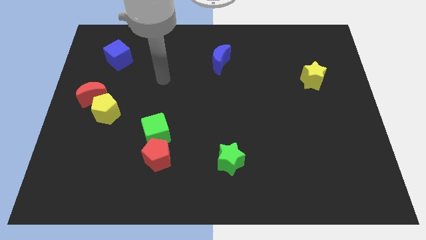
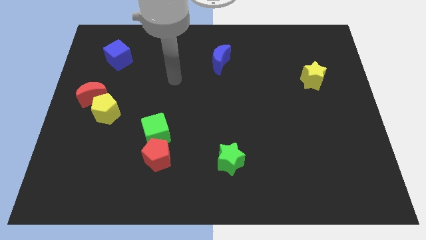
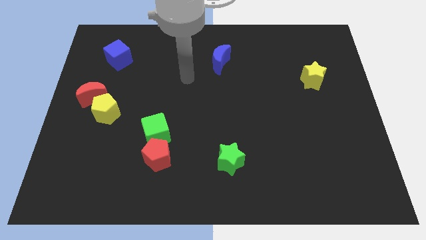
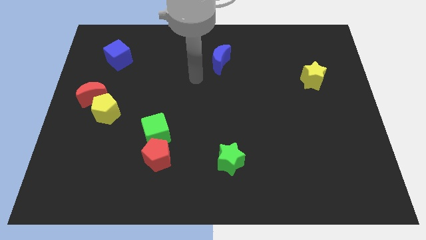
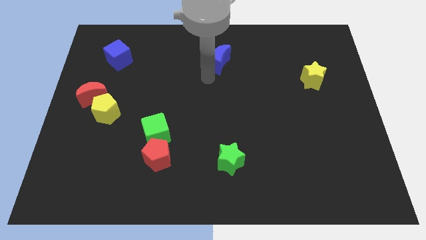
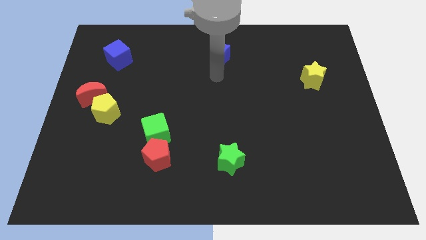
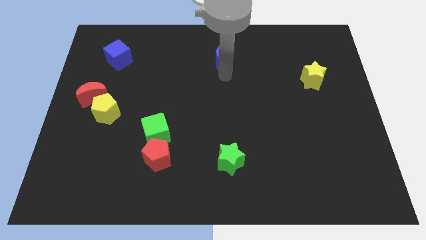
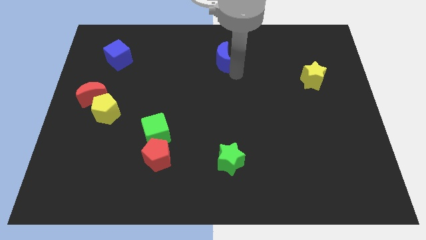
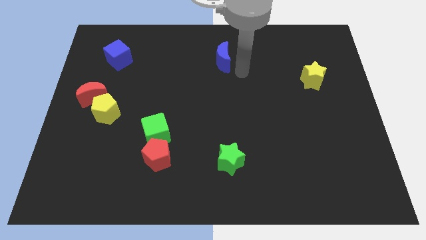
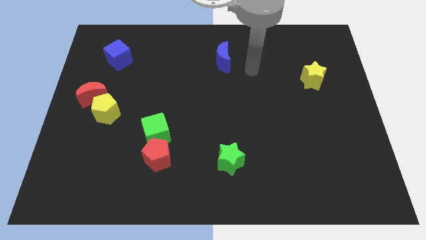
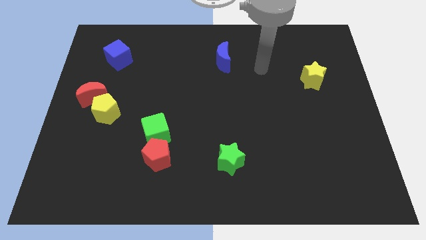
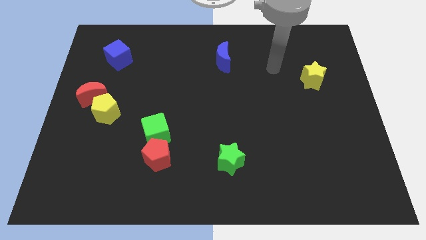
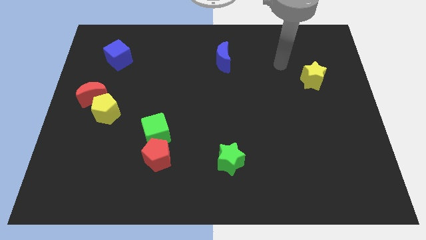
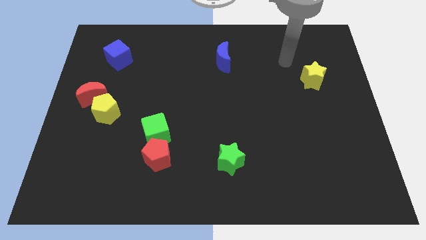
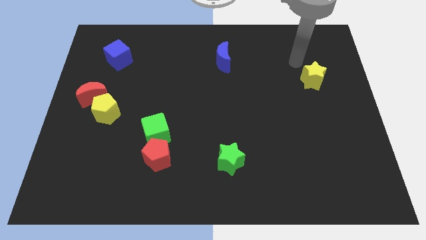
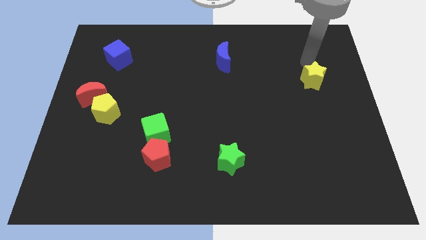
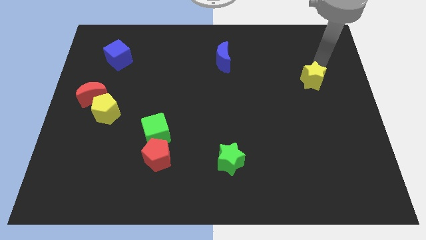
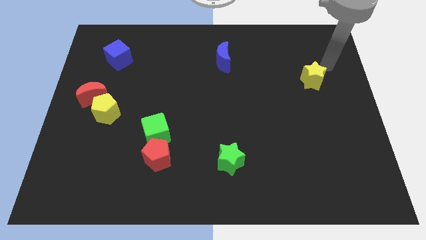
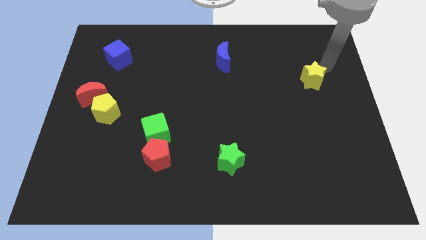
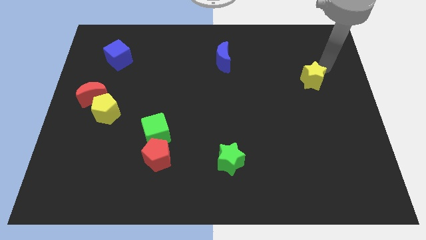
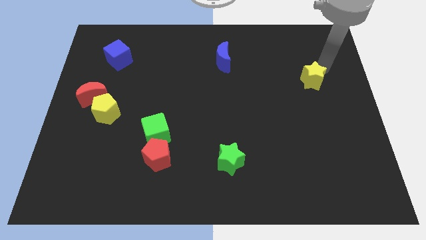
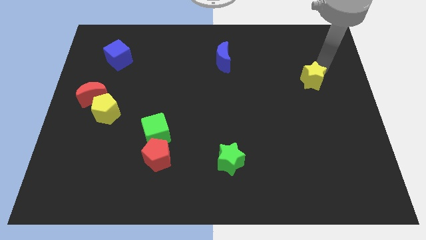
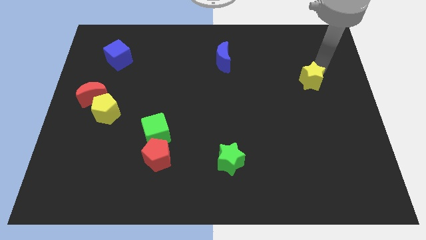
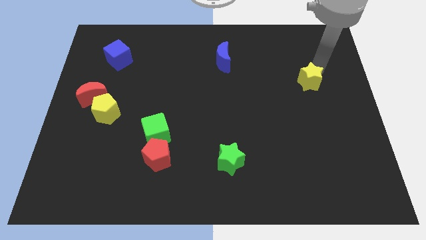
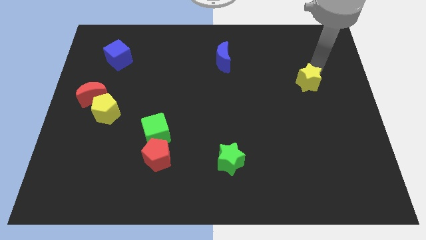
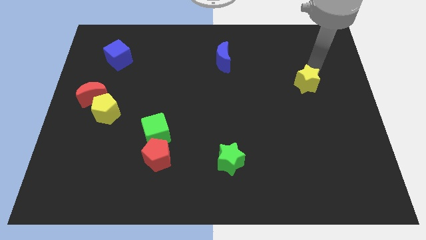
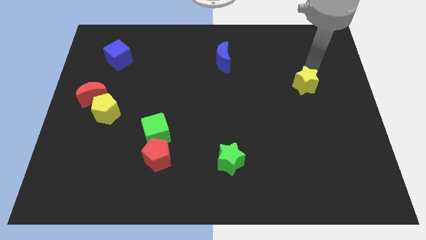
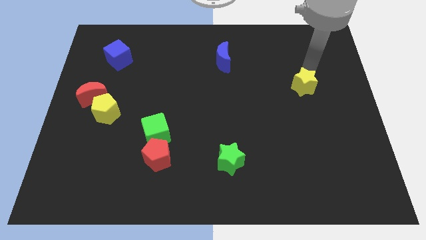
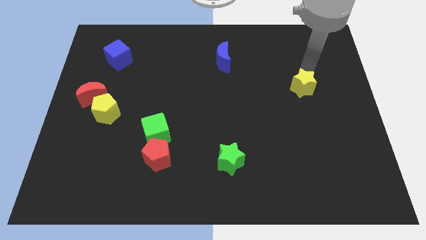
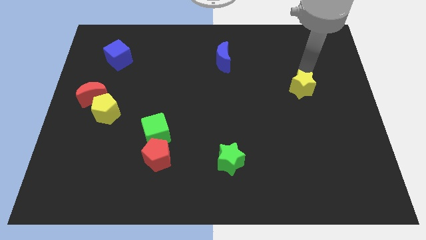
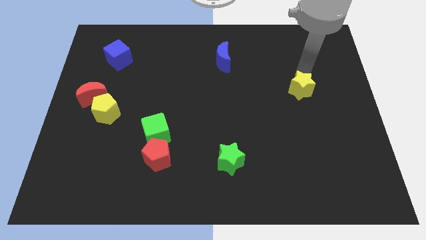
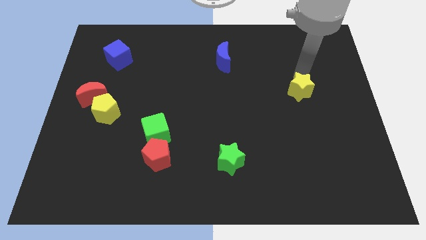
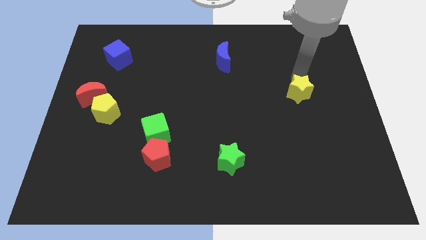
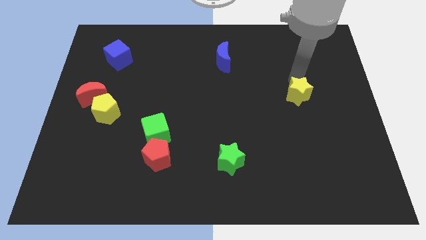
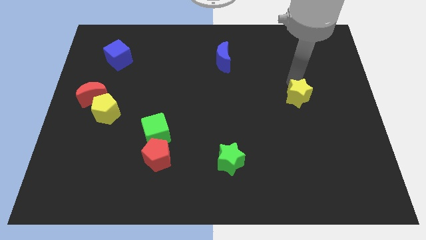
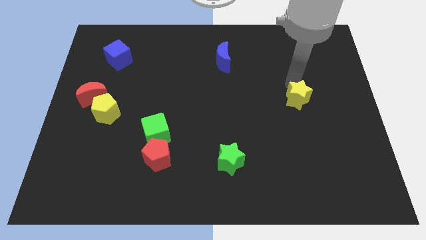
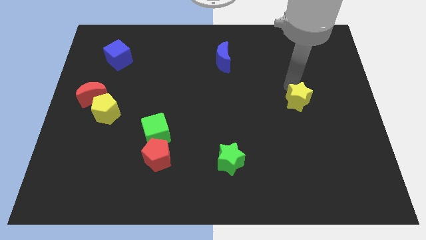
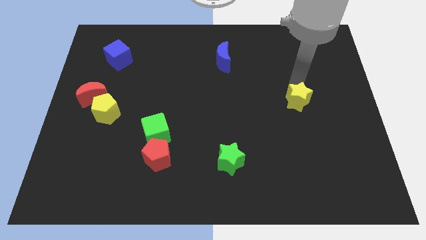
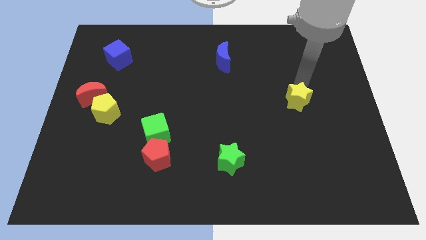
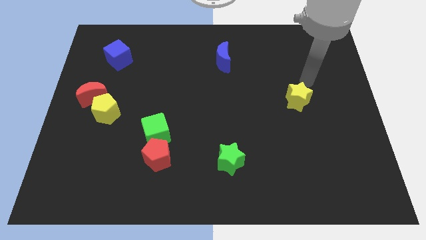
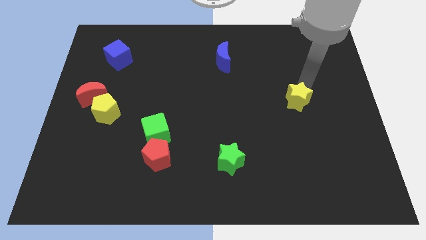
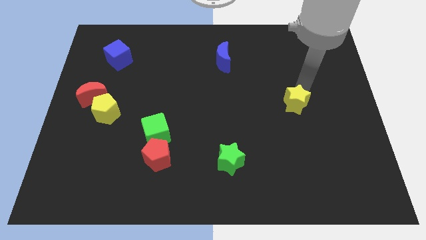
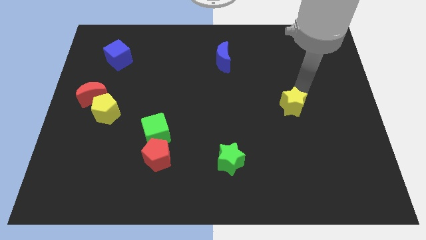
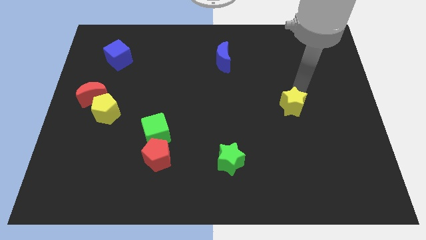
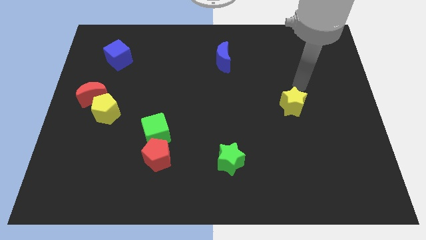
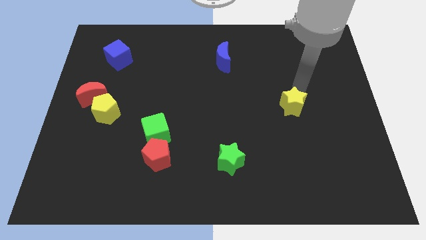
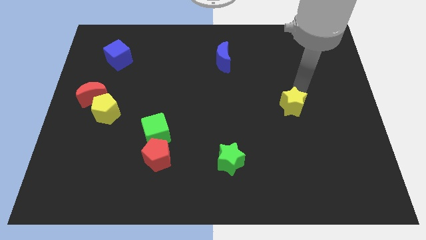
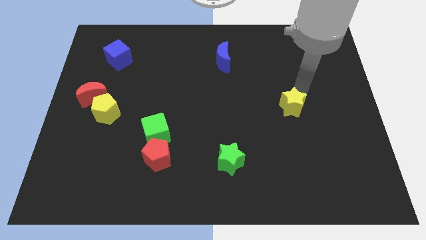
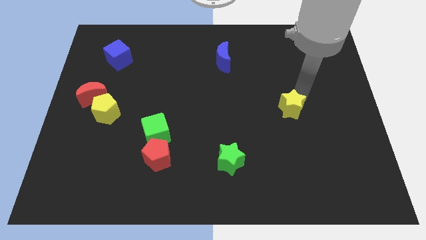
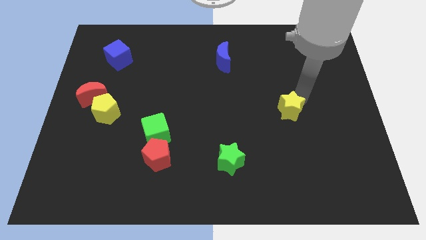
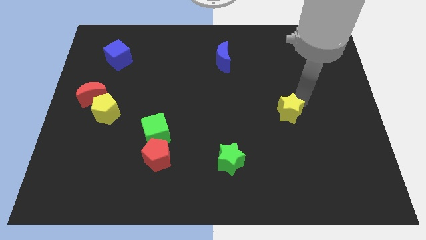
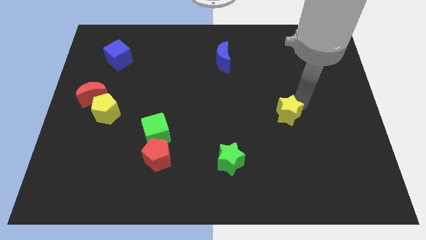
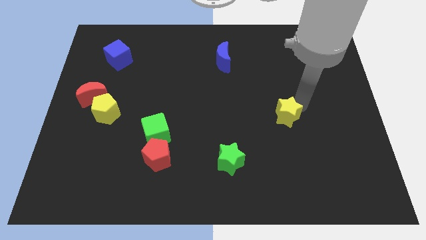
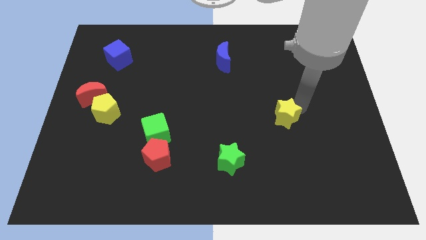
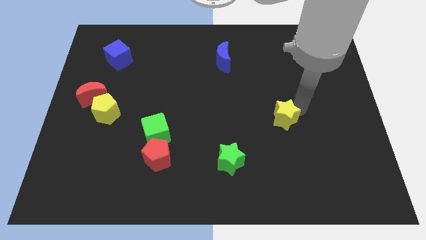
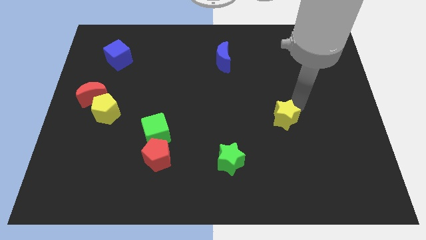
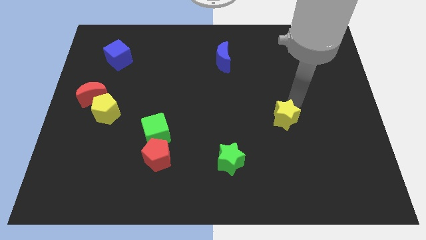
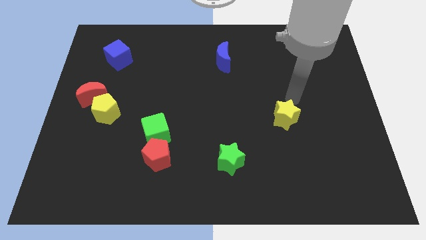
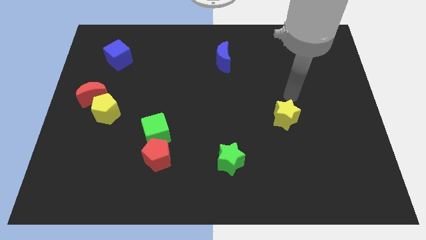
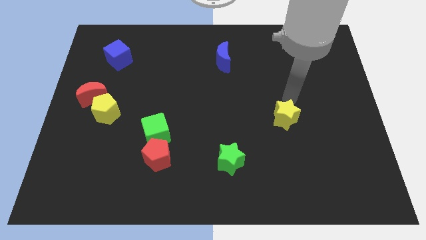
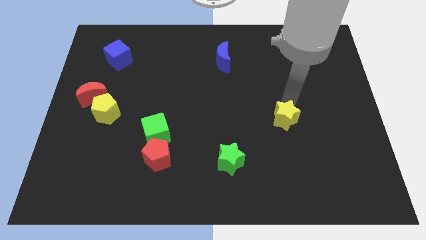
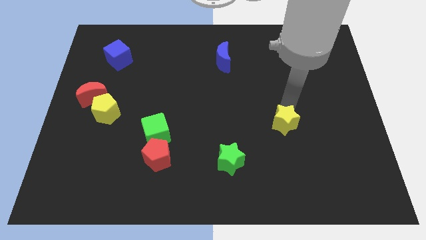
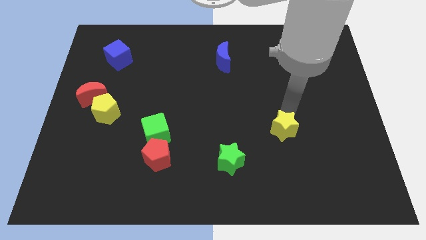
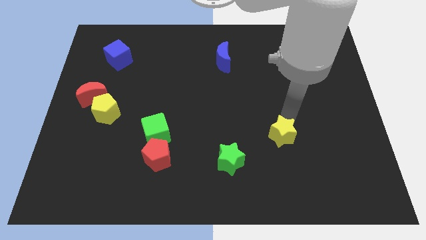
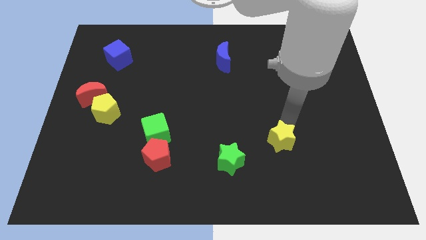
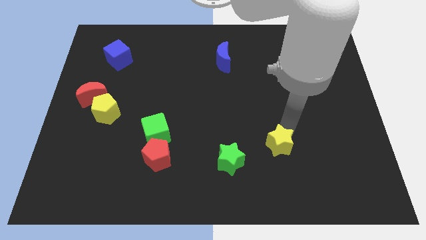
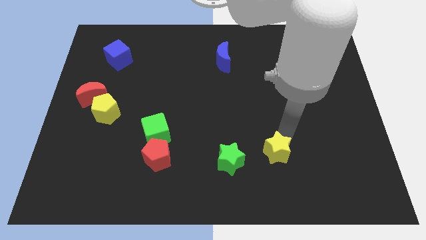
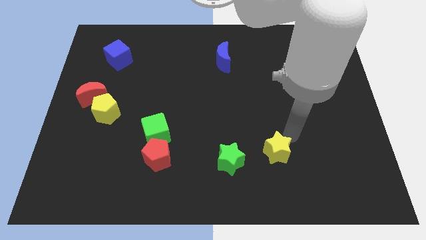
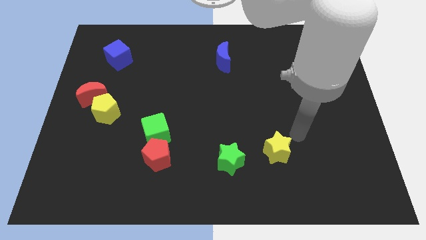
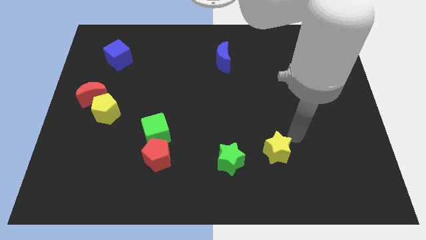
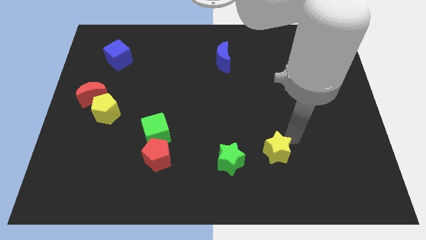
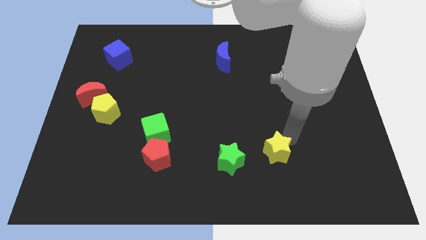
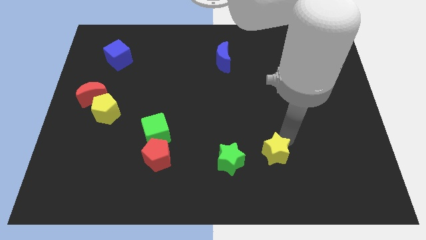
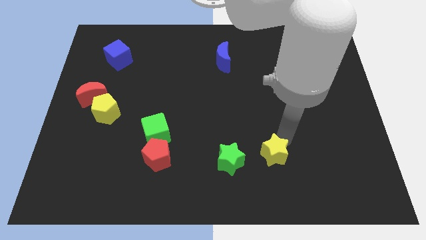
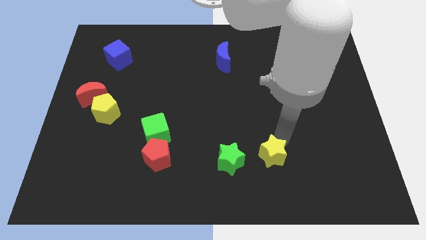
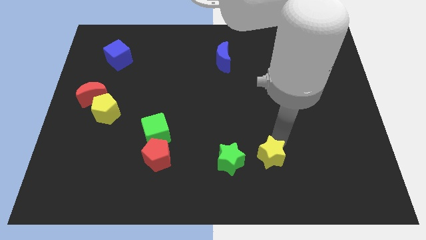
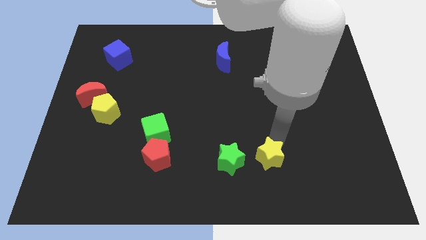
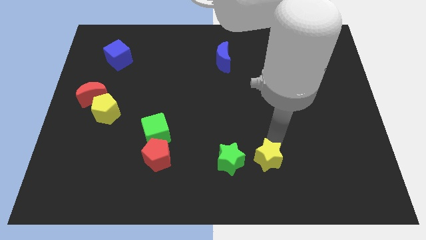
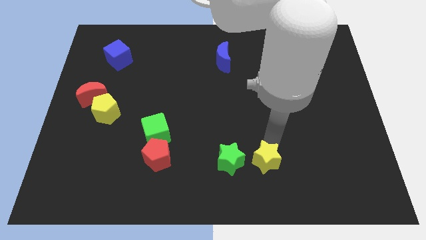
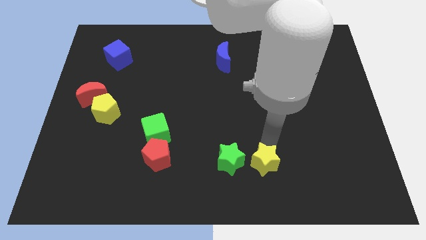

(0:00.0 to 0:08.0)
push the yellow star to the bottom right of the green star
